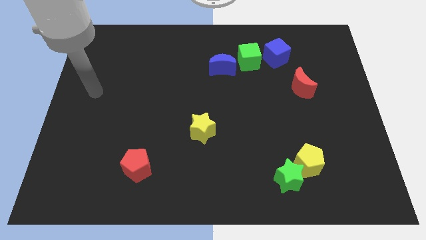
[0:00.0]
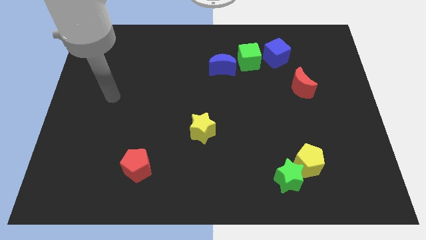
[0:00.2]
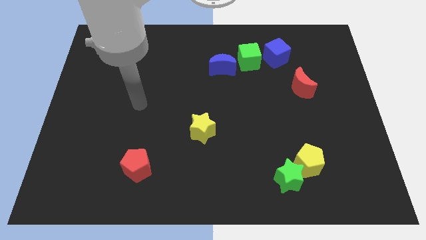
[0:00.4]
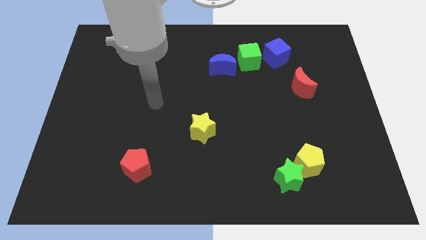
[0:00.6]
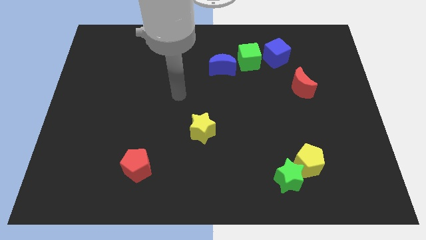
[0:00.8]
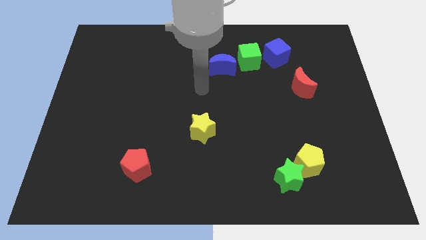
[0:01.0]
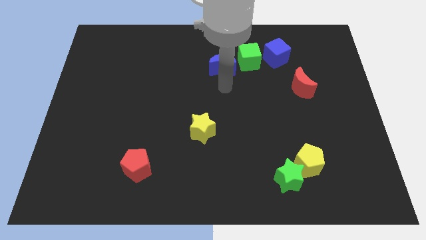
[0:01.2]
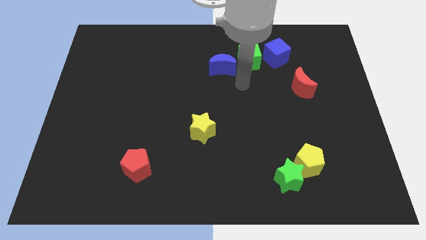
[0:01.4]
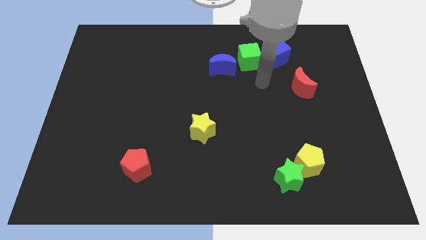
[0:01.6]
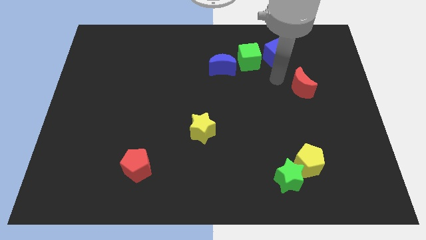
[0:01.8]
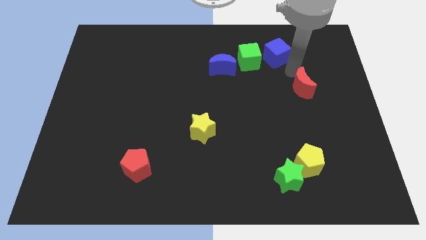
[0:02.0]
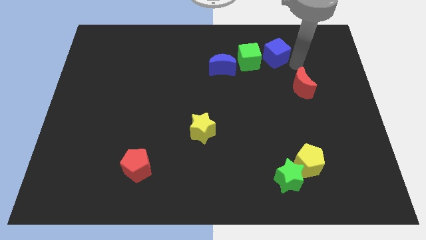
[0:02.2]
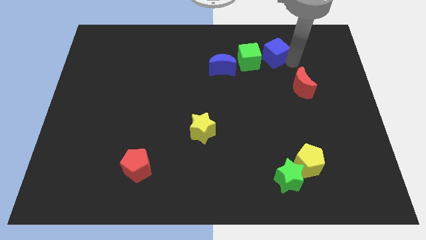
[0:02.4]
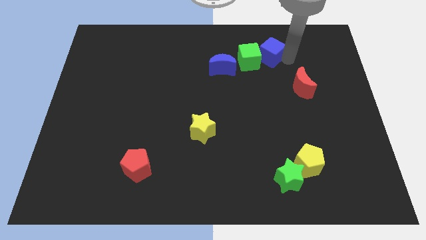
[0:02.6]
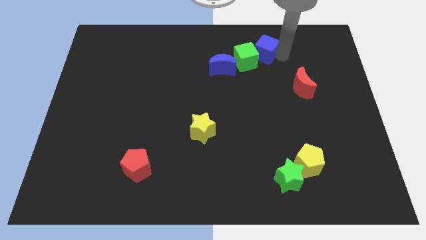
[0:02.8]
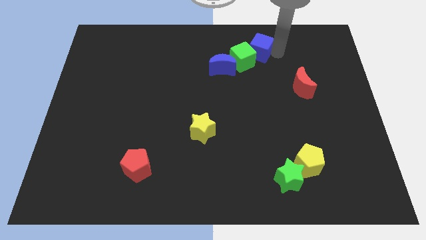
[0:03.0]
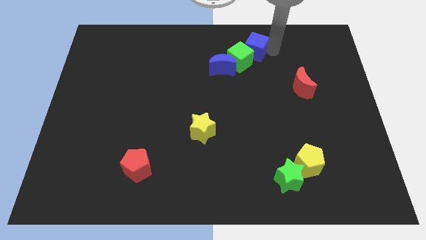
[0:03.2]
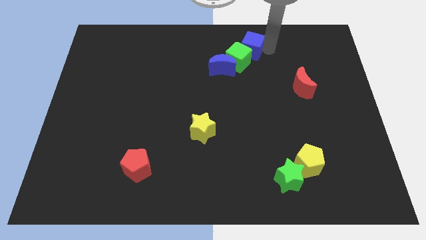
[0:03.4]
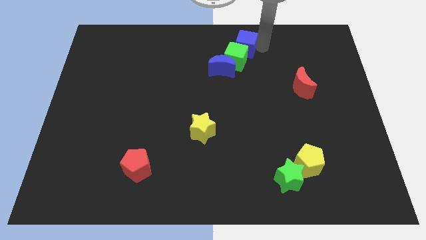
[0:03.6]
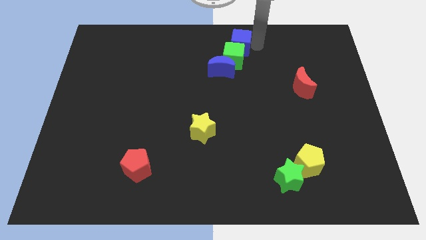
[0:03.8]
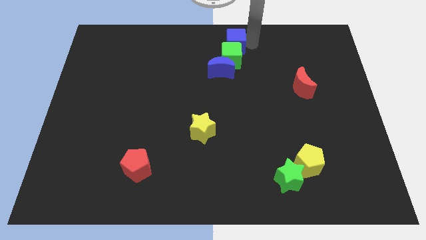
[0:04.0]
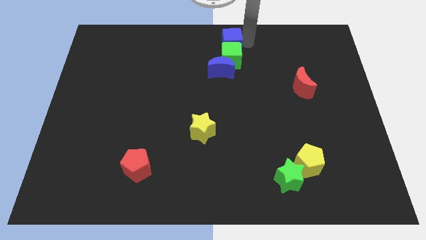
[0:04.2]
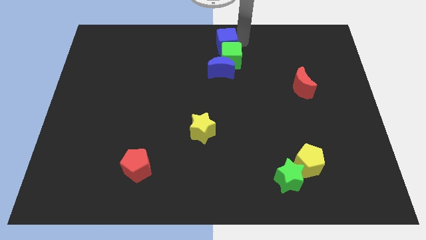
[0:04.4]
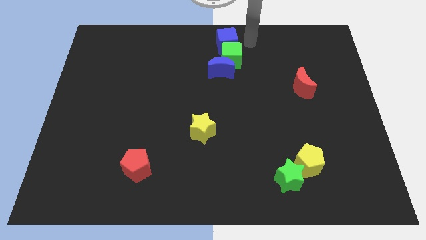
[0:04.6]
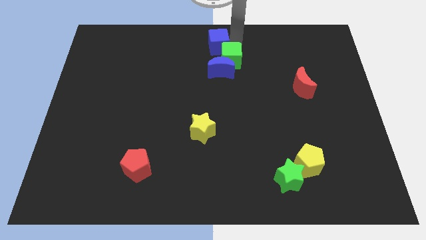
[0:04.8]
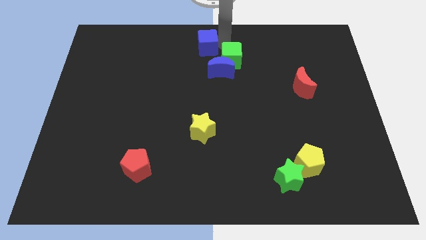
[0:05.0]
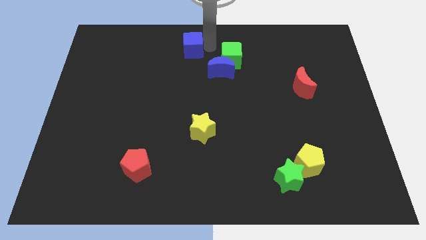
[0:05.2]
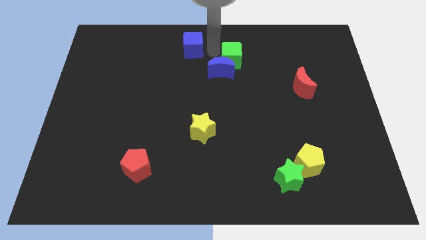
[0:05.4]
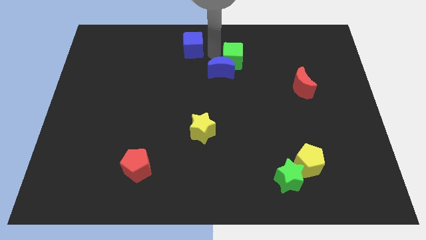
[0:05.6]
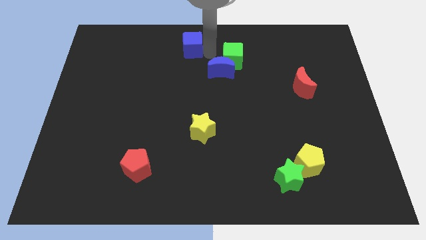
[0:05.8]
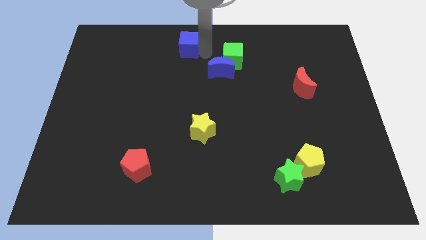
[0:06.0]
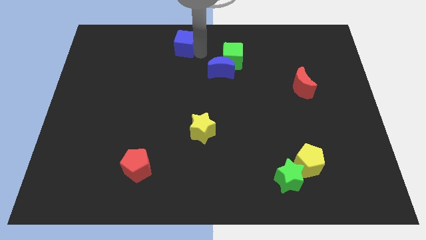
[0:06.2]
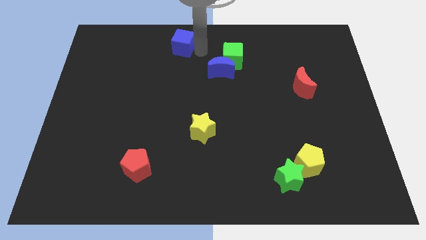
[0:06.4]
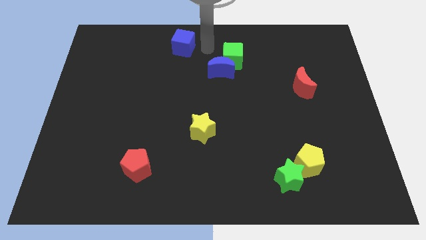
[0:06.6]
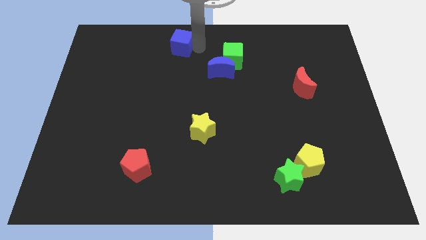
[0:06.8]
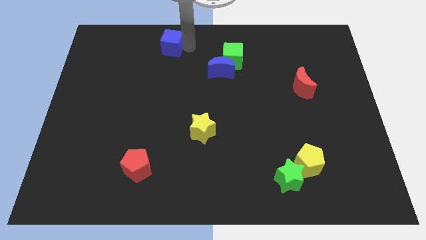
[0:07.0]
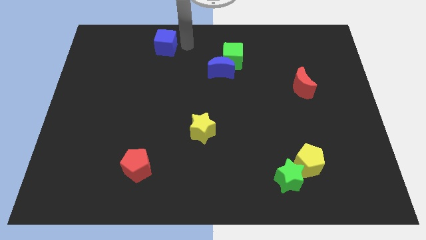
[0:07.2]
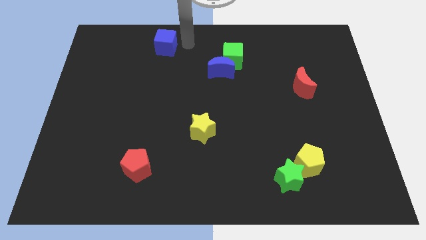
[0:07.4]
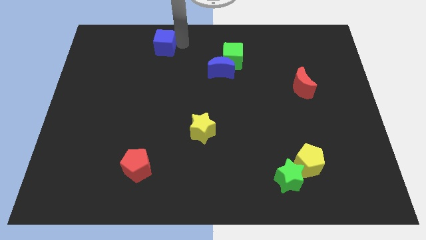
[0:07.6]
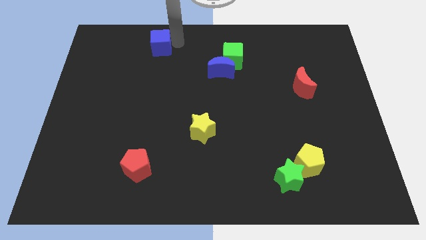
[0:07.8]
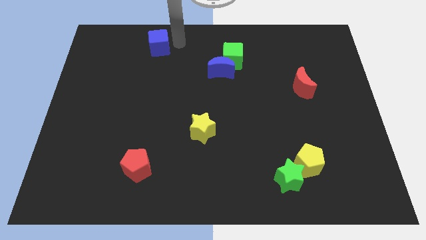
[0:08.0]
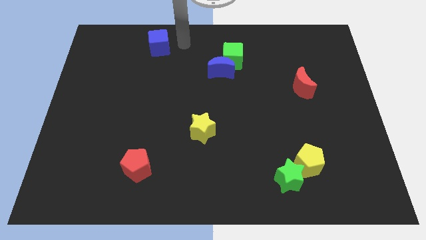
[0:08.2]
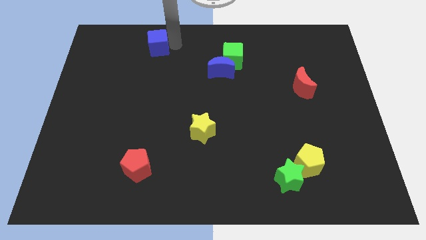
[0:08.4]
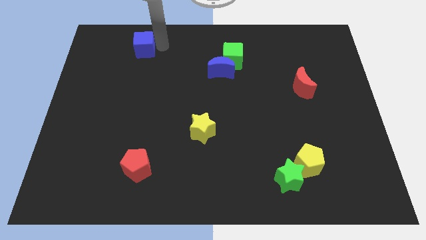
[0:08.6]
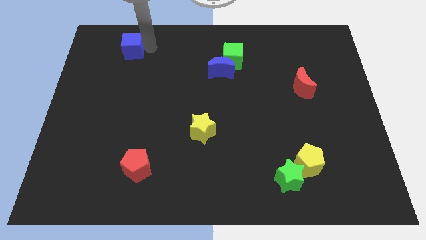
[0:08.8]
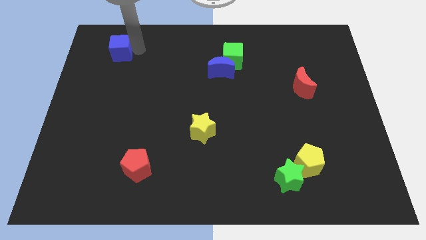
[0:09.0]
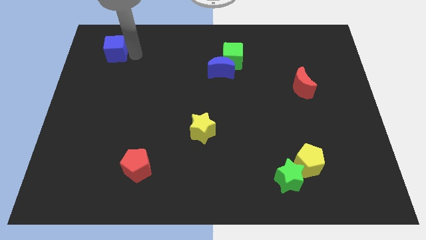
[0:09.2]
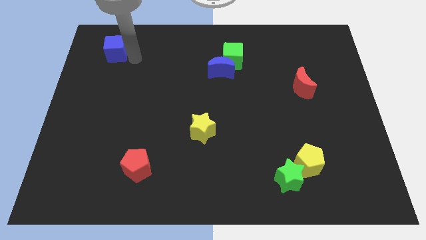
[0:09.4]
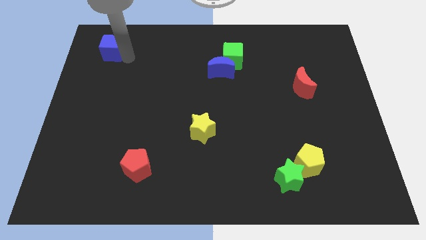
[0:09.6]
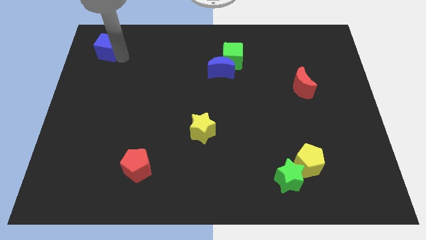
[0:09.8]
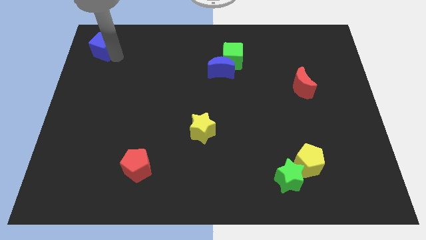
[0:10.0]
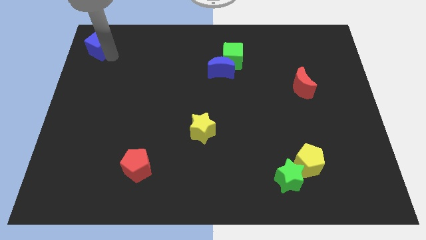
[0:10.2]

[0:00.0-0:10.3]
push the blue cube to the top left corner

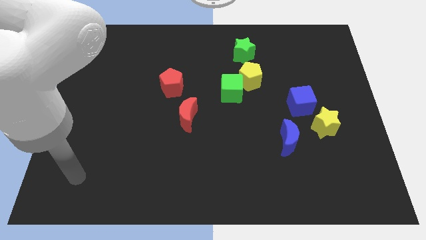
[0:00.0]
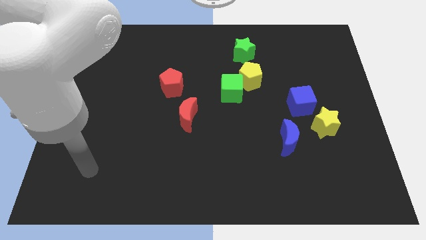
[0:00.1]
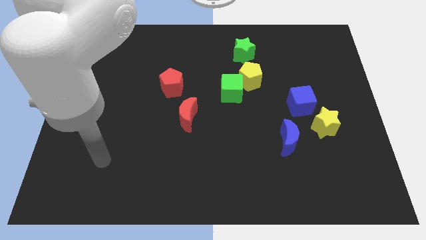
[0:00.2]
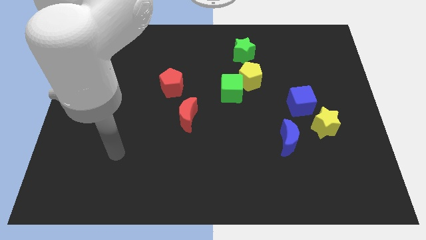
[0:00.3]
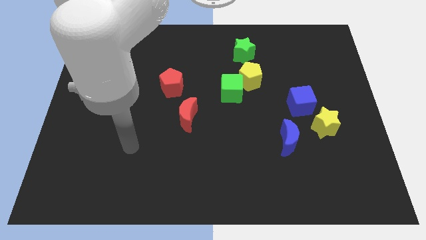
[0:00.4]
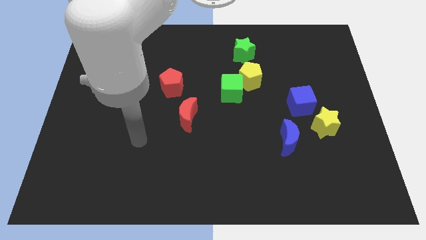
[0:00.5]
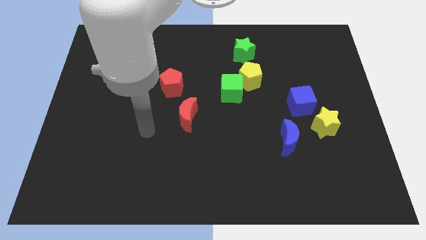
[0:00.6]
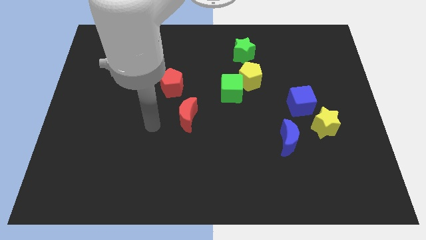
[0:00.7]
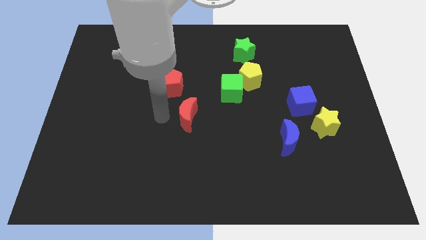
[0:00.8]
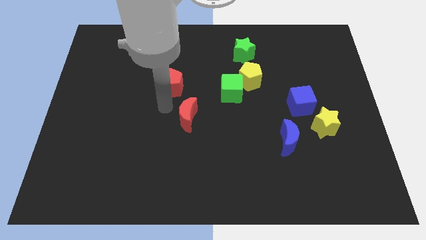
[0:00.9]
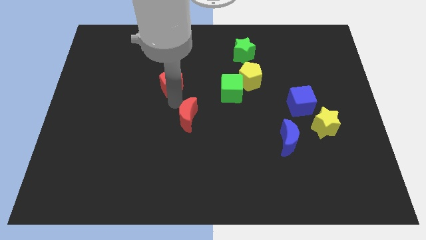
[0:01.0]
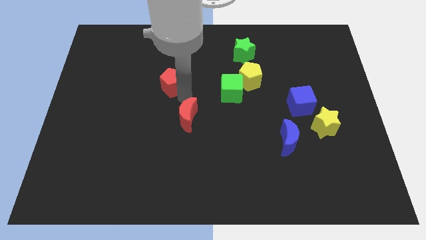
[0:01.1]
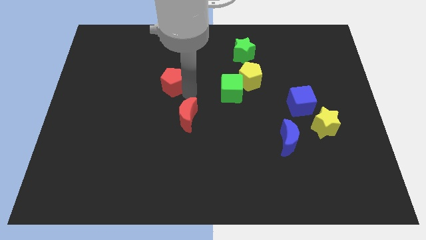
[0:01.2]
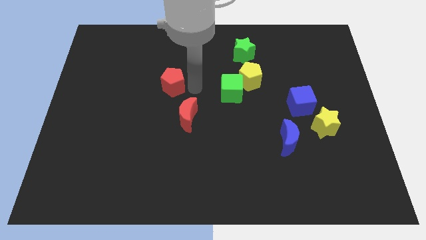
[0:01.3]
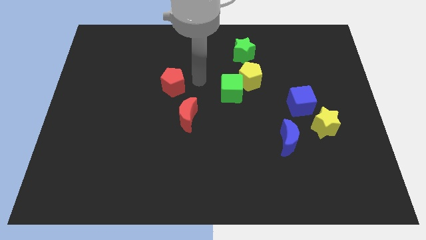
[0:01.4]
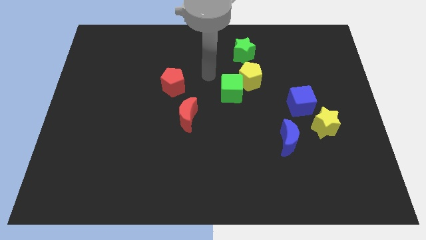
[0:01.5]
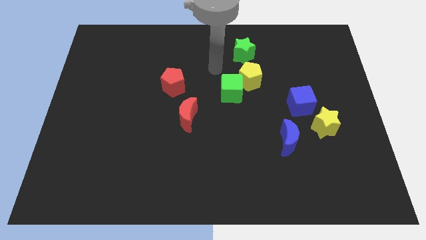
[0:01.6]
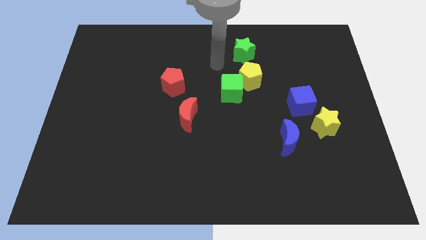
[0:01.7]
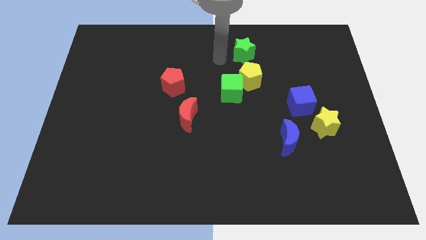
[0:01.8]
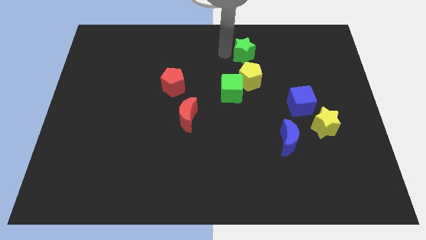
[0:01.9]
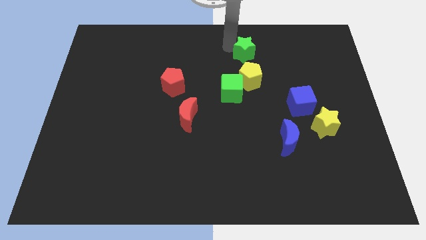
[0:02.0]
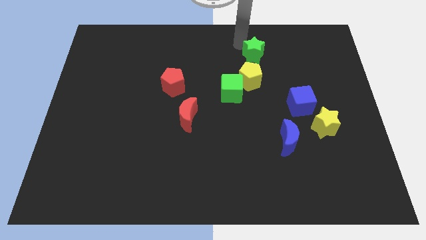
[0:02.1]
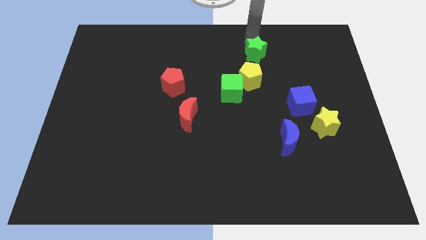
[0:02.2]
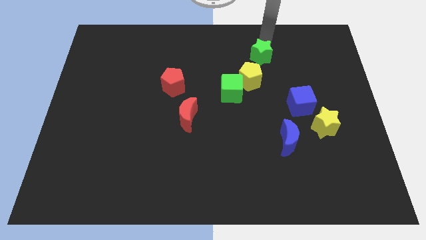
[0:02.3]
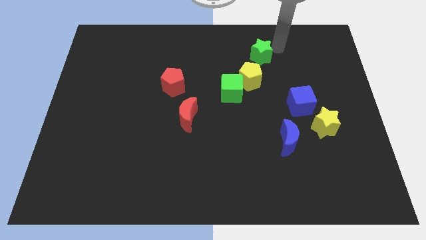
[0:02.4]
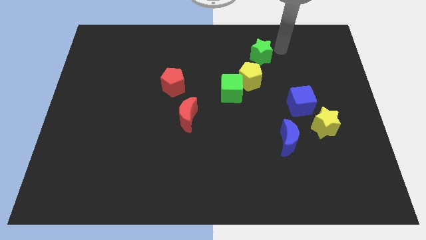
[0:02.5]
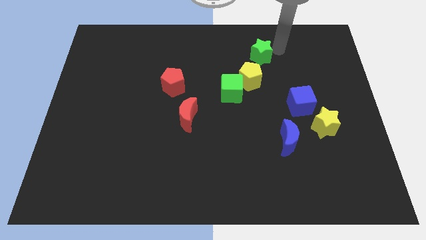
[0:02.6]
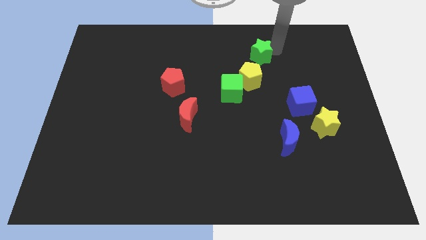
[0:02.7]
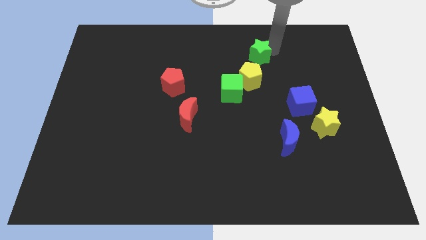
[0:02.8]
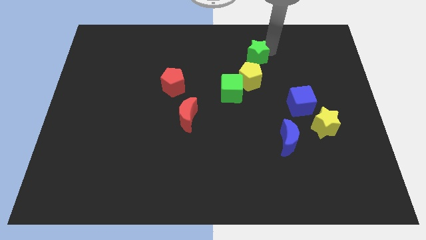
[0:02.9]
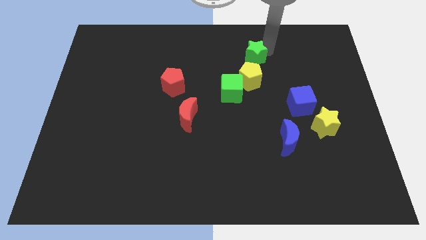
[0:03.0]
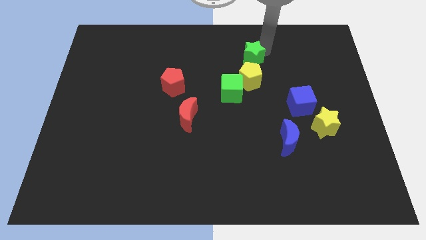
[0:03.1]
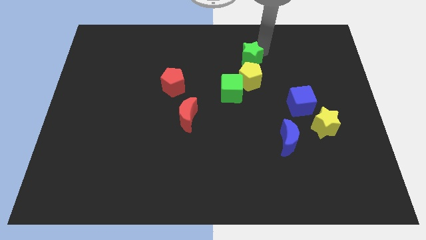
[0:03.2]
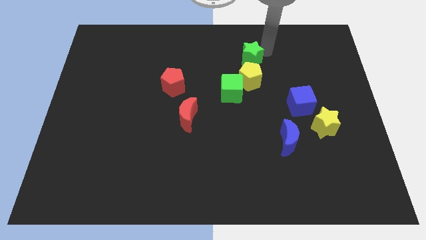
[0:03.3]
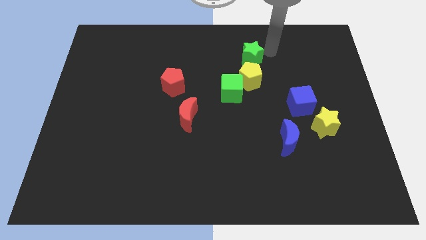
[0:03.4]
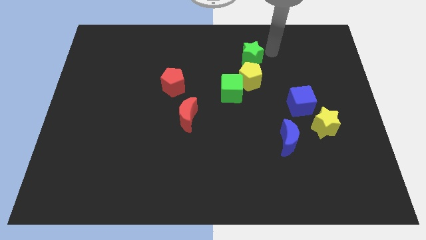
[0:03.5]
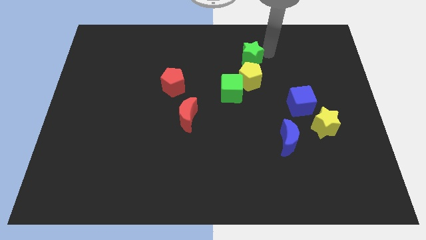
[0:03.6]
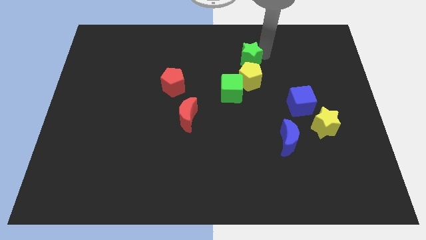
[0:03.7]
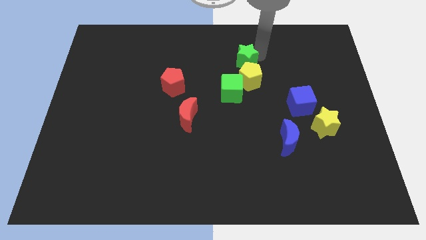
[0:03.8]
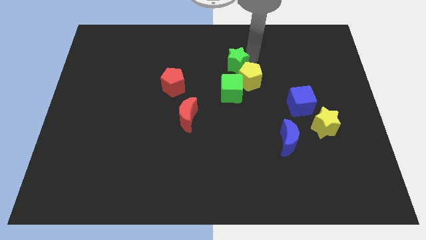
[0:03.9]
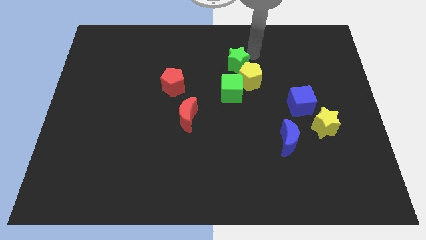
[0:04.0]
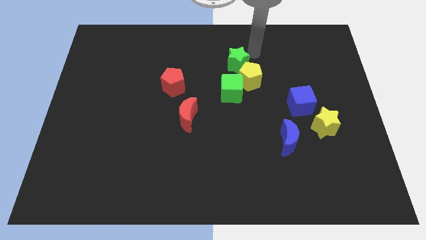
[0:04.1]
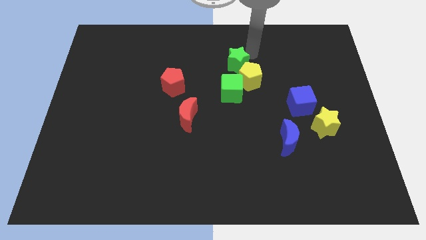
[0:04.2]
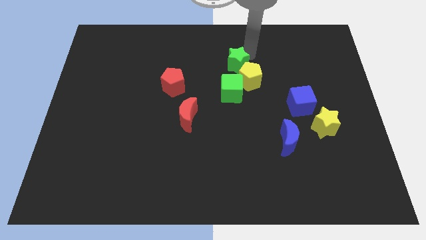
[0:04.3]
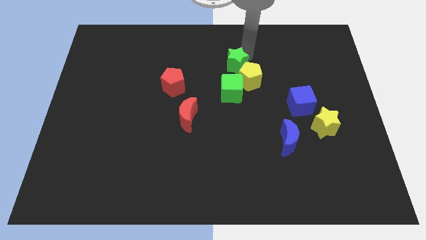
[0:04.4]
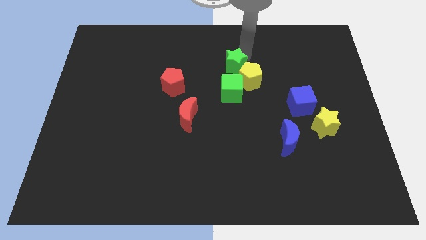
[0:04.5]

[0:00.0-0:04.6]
move the green star to the middle of the board
